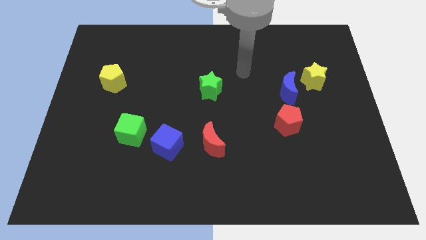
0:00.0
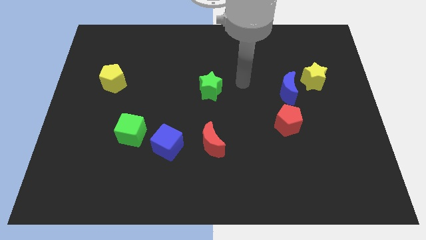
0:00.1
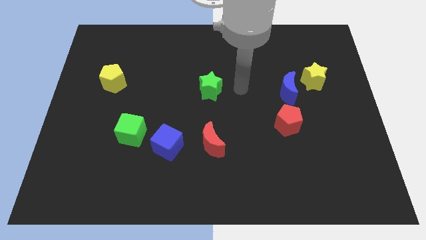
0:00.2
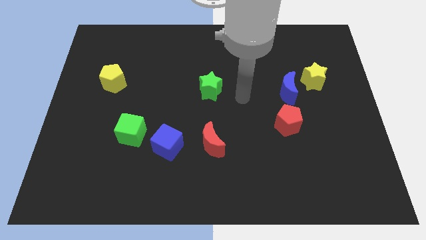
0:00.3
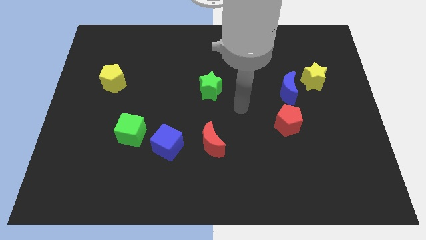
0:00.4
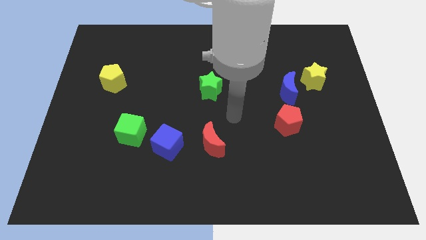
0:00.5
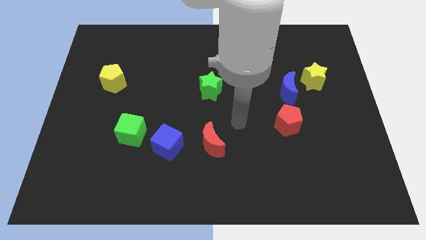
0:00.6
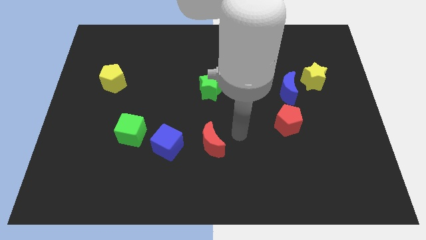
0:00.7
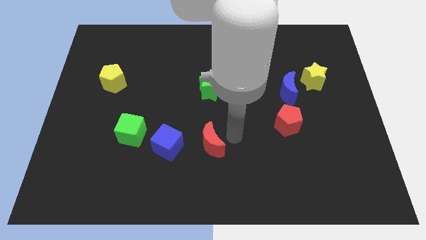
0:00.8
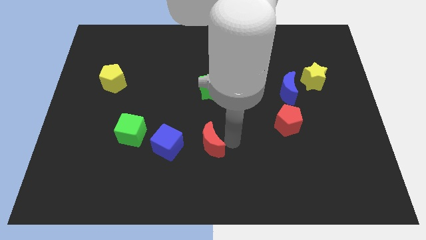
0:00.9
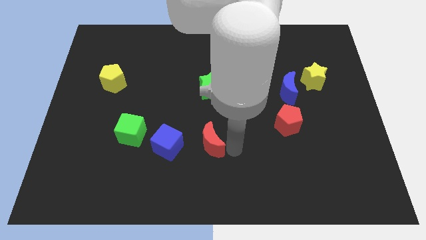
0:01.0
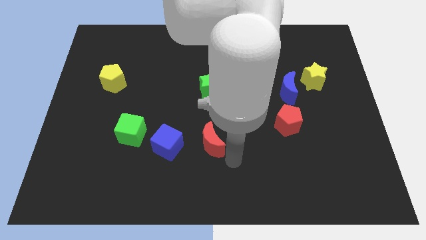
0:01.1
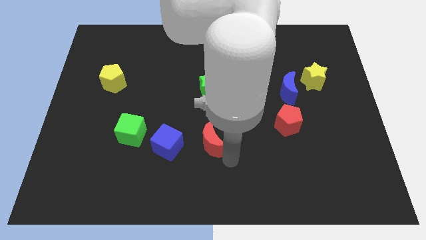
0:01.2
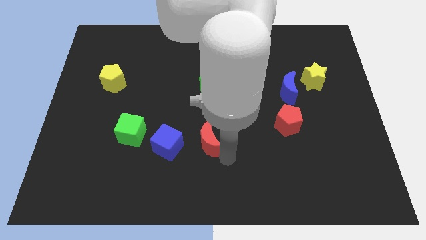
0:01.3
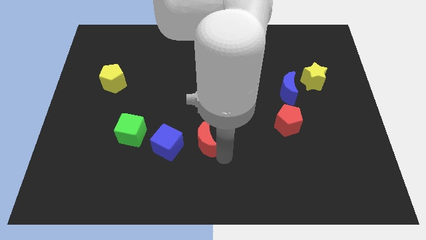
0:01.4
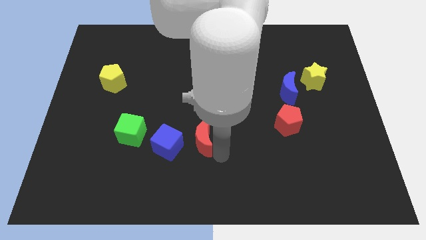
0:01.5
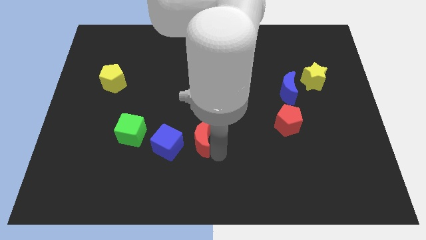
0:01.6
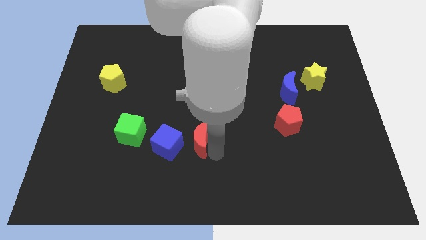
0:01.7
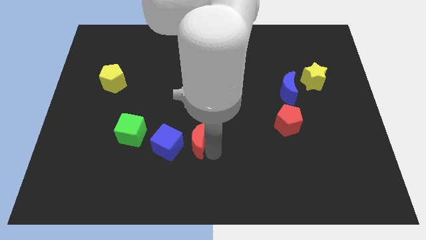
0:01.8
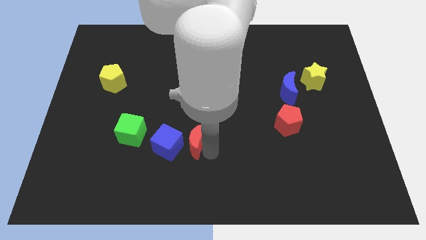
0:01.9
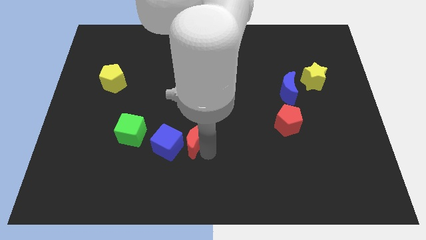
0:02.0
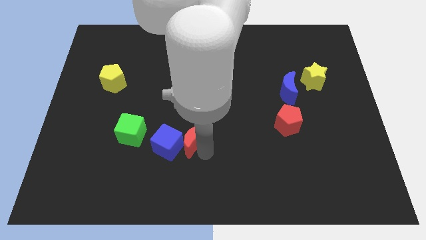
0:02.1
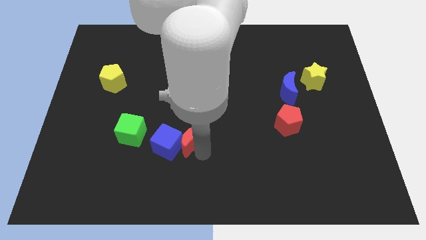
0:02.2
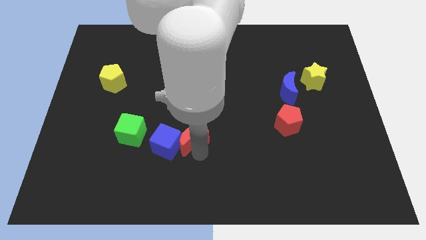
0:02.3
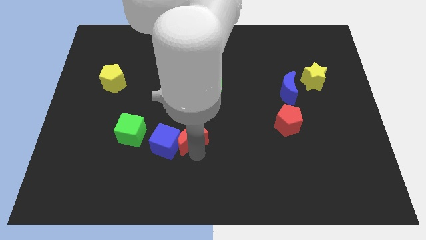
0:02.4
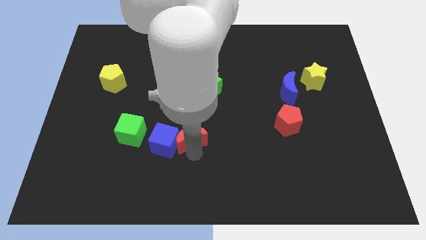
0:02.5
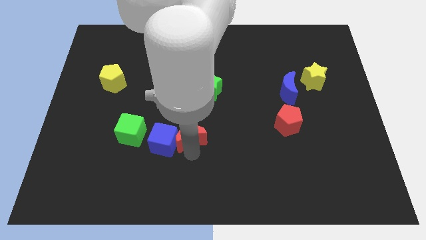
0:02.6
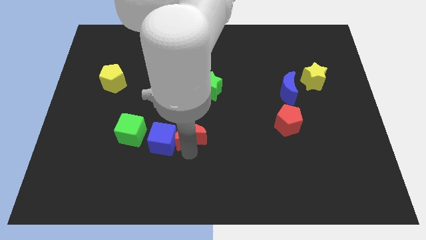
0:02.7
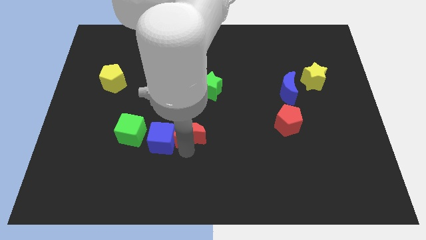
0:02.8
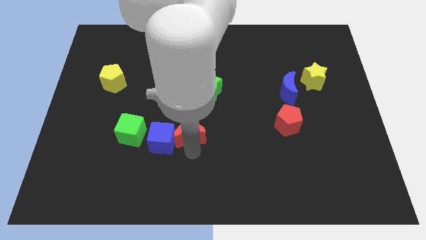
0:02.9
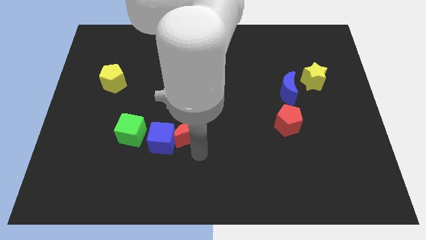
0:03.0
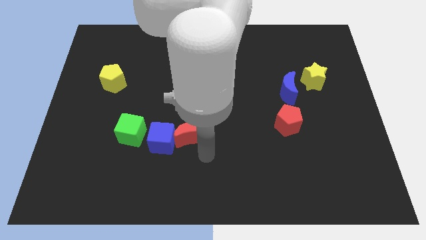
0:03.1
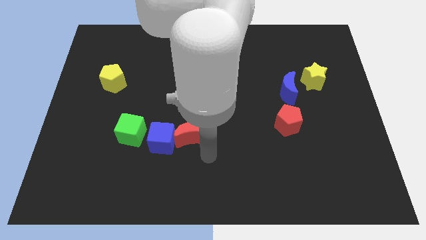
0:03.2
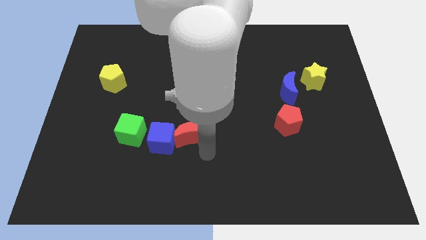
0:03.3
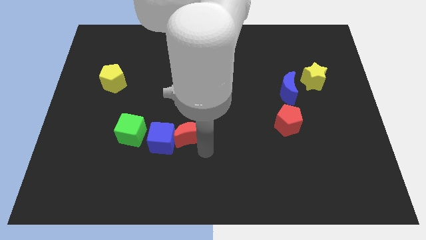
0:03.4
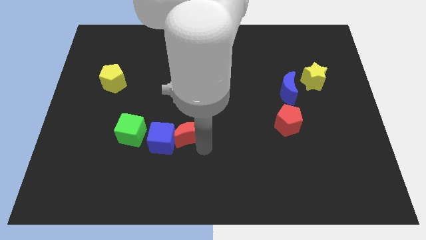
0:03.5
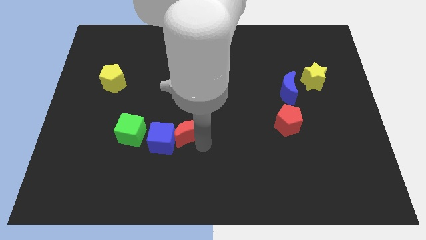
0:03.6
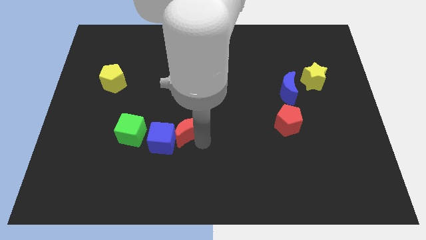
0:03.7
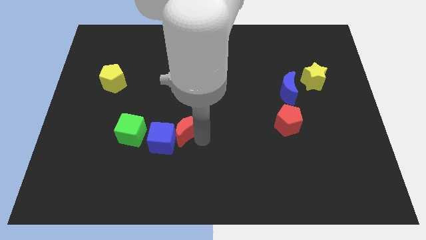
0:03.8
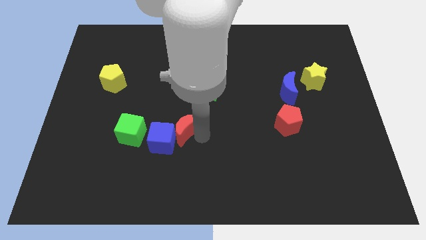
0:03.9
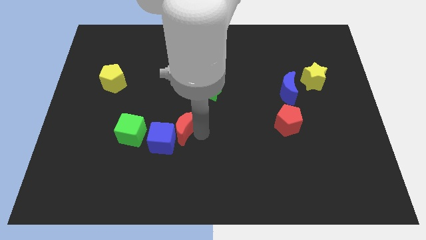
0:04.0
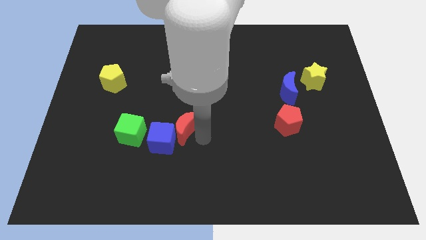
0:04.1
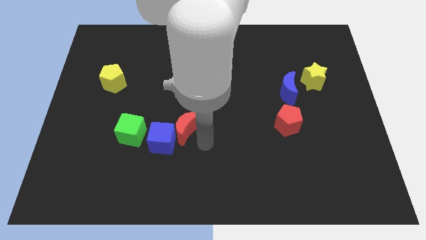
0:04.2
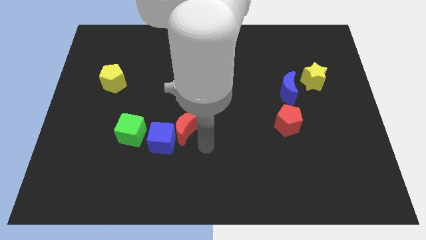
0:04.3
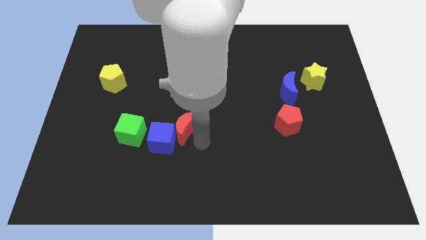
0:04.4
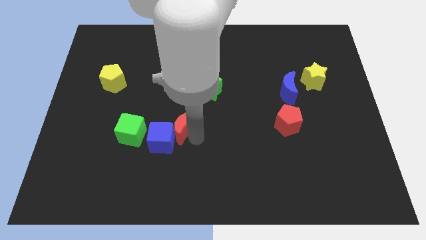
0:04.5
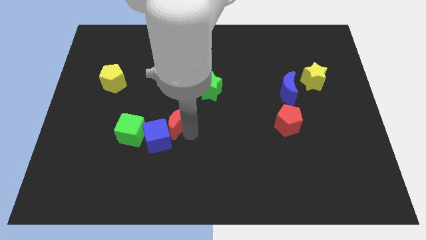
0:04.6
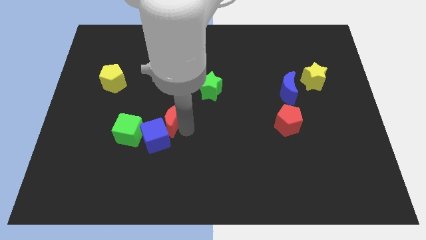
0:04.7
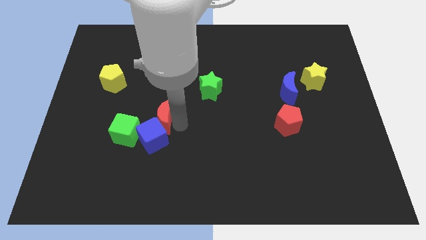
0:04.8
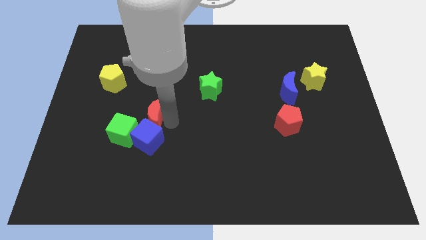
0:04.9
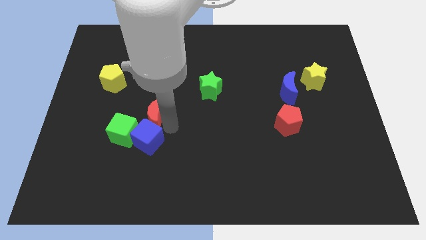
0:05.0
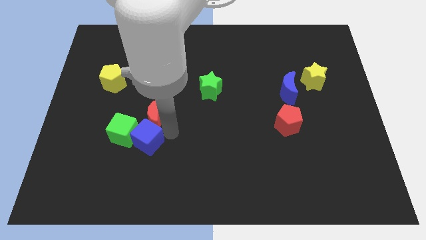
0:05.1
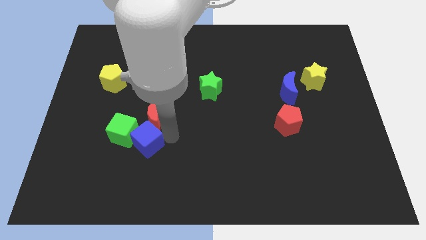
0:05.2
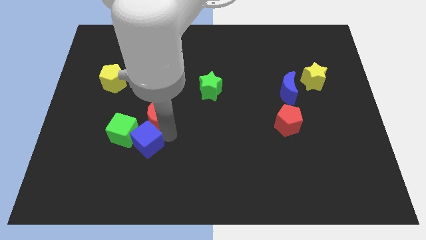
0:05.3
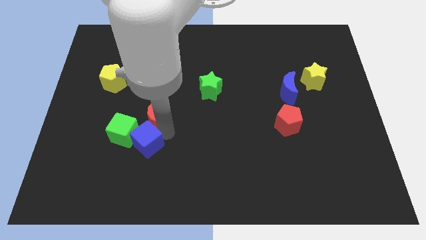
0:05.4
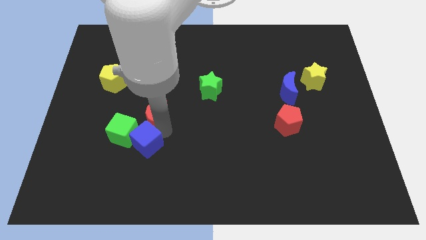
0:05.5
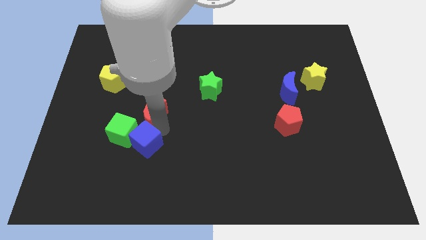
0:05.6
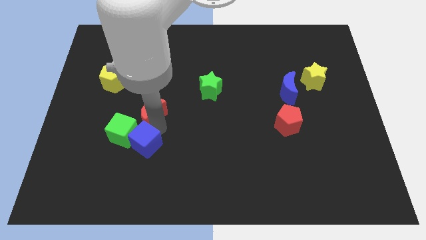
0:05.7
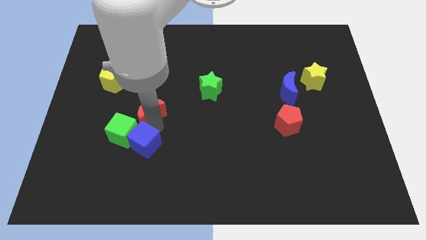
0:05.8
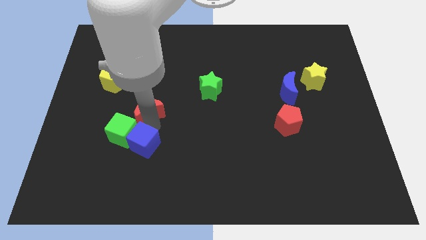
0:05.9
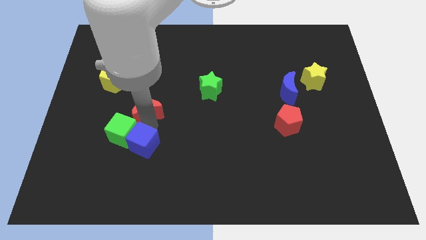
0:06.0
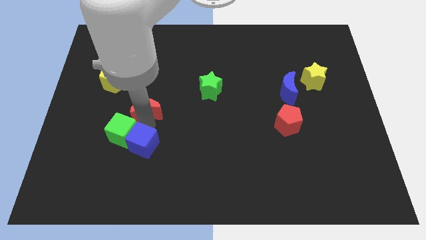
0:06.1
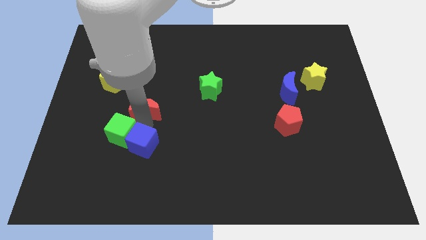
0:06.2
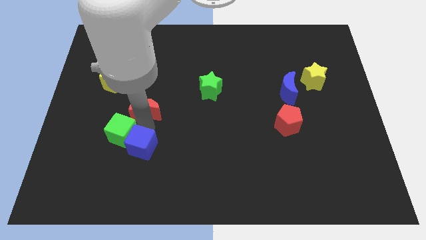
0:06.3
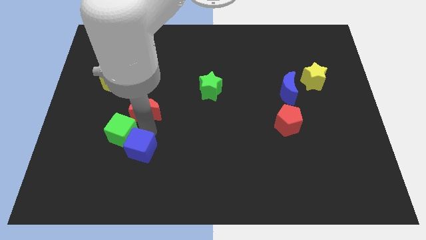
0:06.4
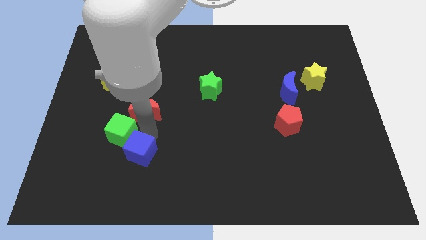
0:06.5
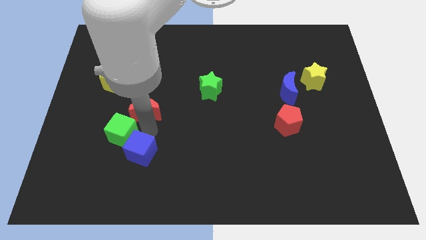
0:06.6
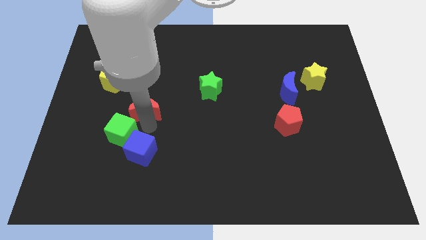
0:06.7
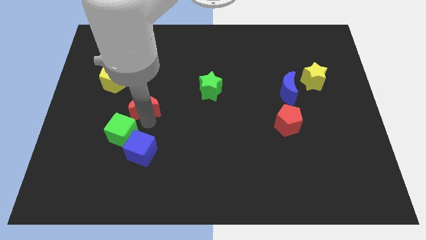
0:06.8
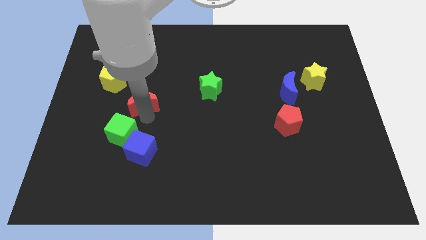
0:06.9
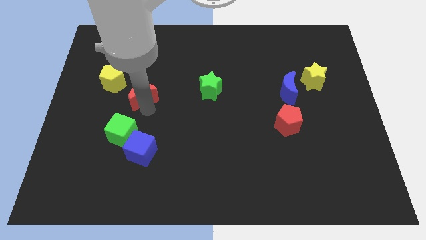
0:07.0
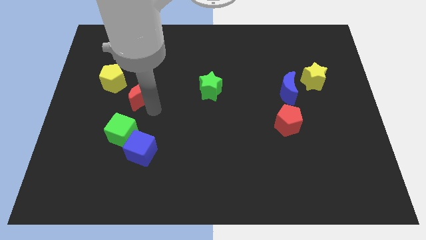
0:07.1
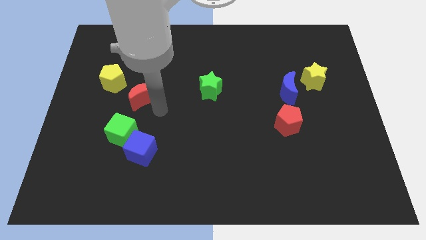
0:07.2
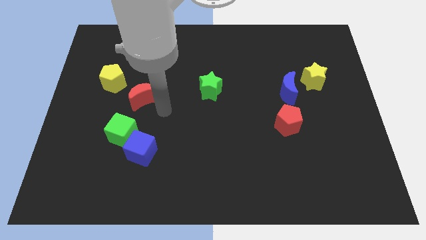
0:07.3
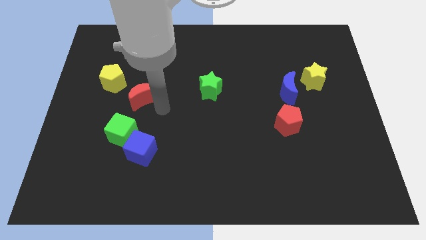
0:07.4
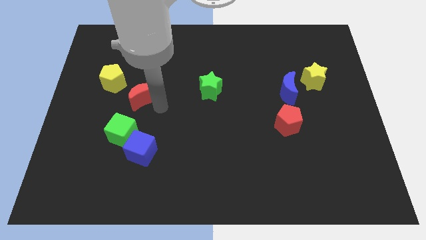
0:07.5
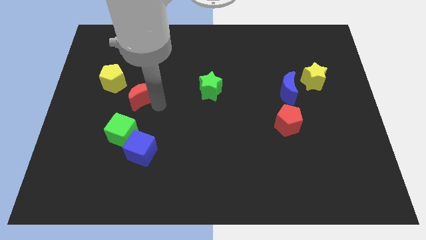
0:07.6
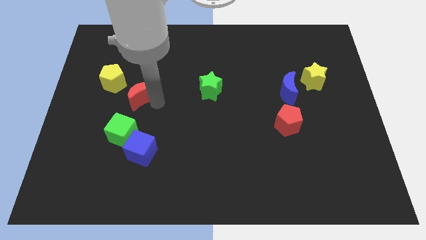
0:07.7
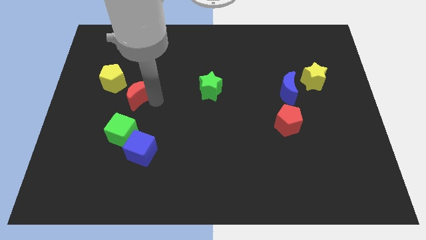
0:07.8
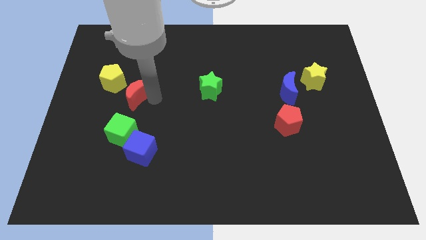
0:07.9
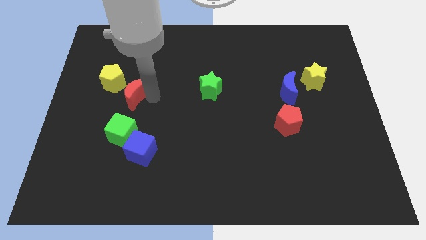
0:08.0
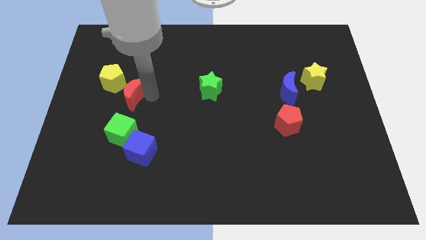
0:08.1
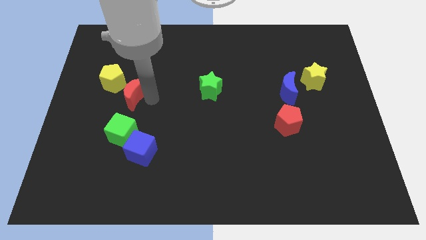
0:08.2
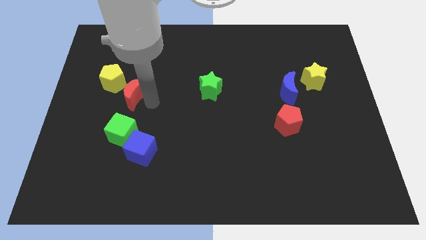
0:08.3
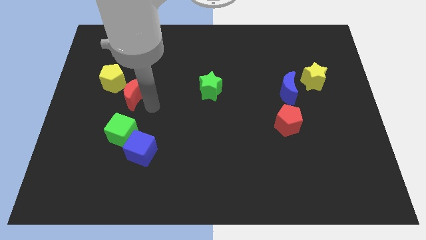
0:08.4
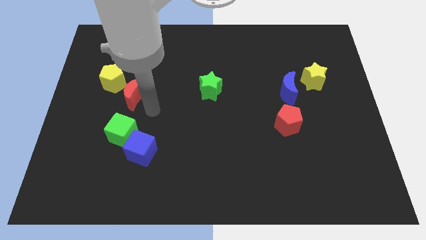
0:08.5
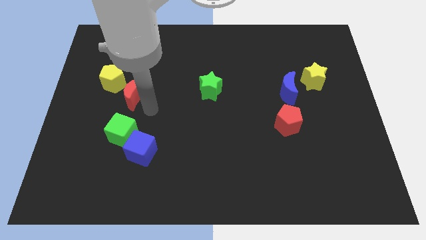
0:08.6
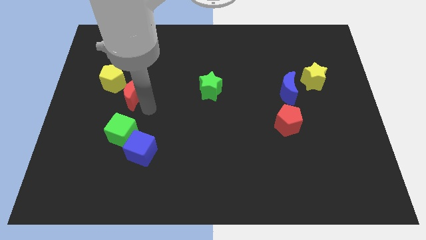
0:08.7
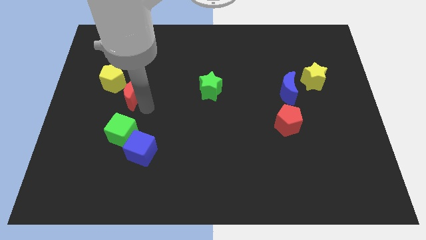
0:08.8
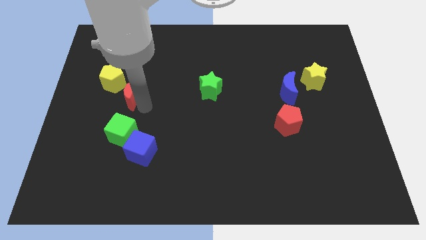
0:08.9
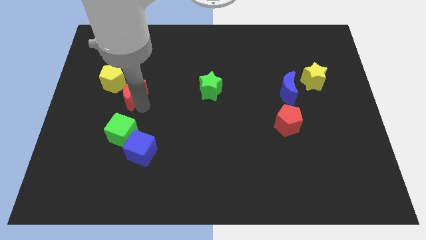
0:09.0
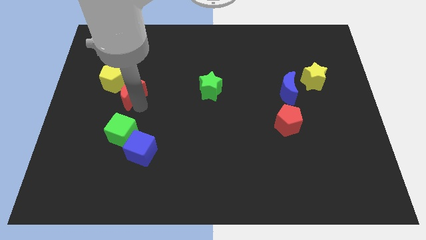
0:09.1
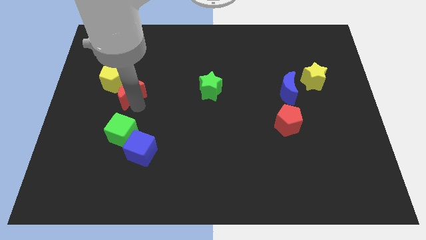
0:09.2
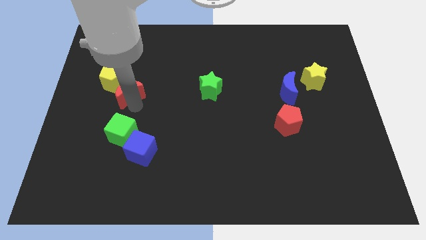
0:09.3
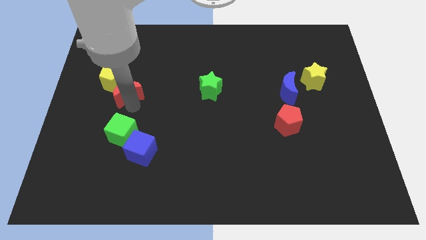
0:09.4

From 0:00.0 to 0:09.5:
slide the red moon to the yellow pentagon
